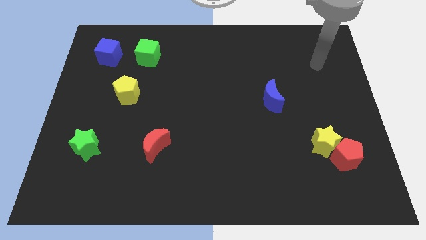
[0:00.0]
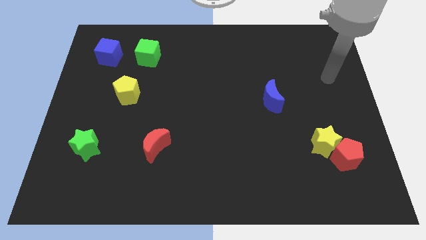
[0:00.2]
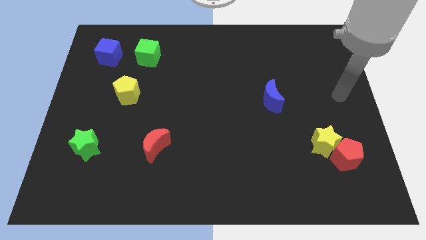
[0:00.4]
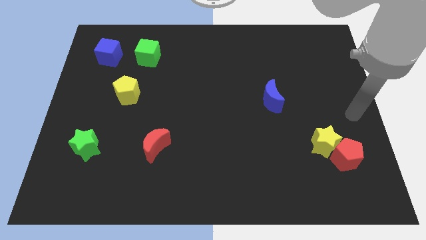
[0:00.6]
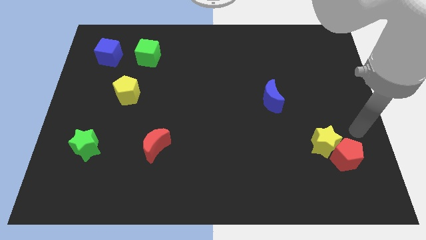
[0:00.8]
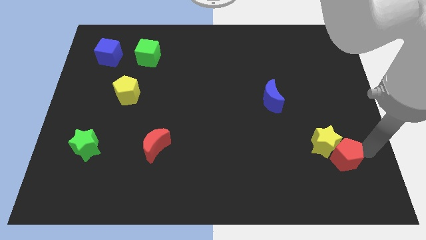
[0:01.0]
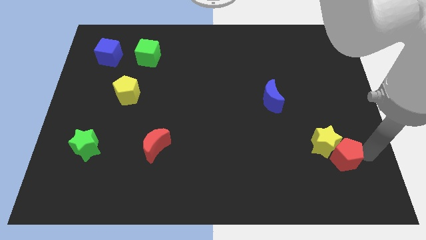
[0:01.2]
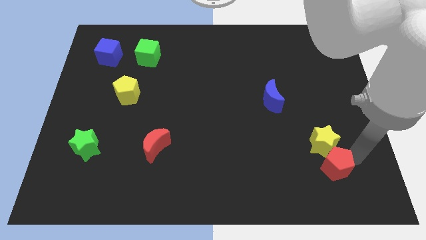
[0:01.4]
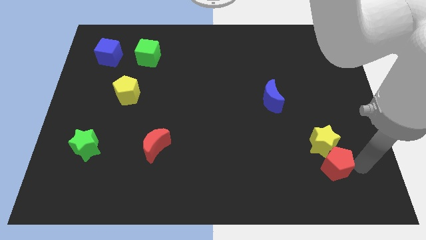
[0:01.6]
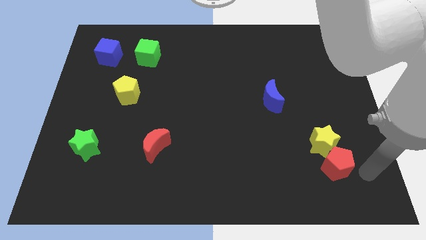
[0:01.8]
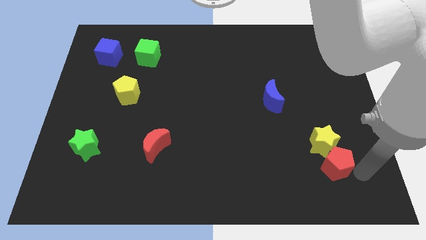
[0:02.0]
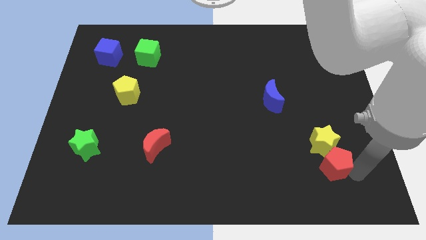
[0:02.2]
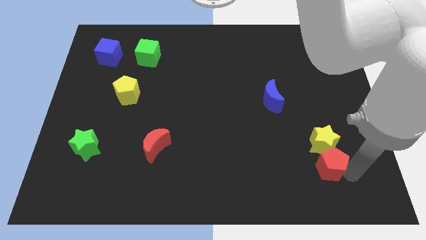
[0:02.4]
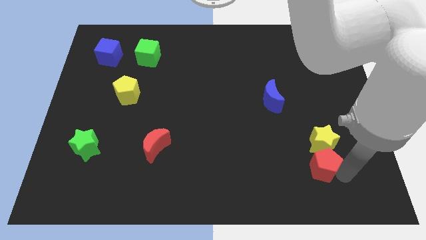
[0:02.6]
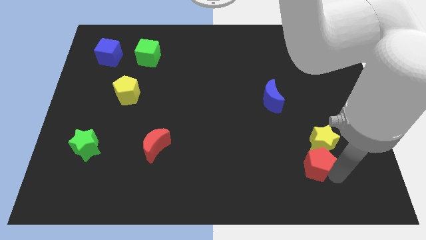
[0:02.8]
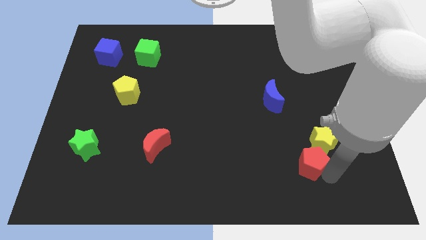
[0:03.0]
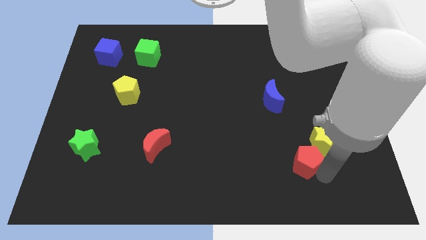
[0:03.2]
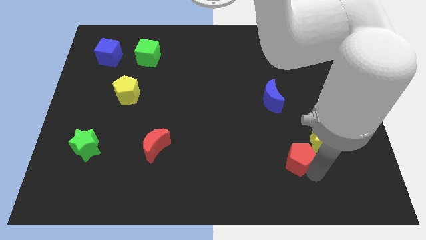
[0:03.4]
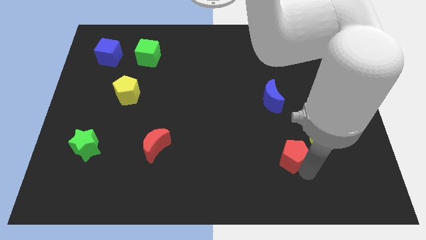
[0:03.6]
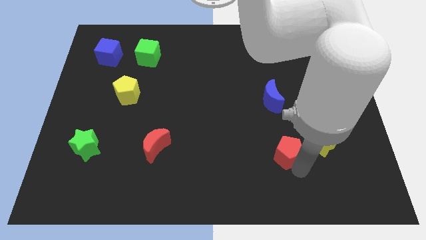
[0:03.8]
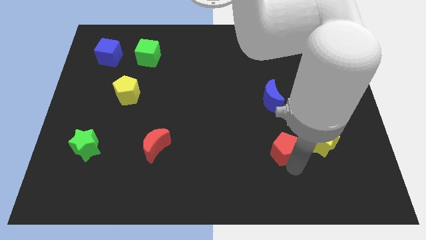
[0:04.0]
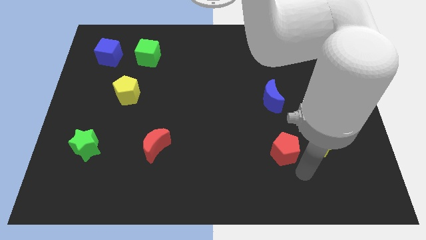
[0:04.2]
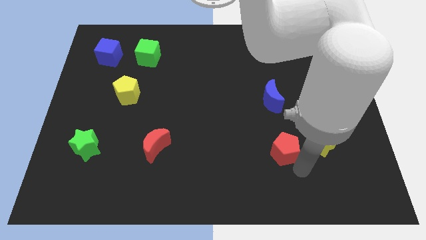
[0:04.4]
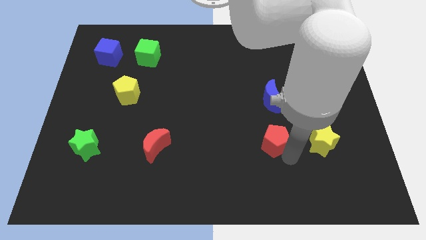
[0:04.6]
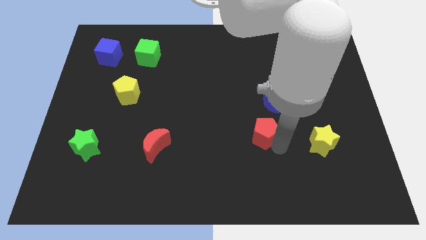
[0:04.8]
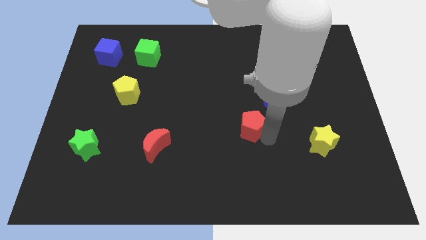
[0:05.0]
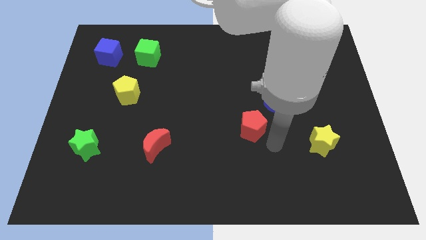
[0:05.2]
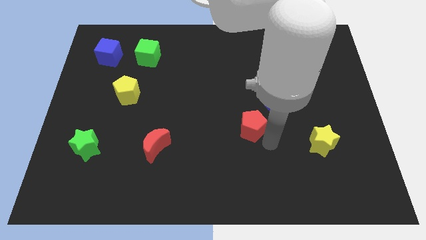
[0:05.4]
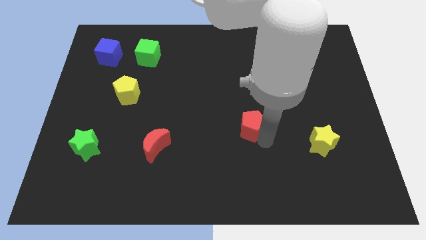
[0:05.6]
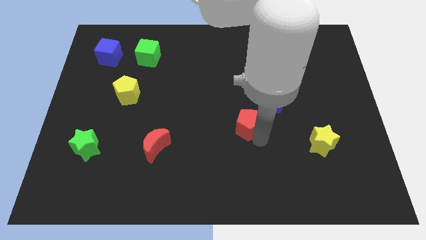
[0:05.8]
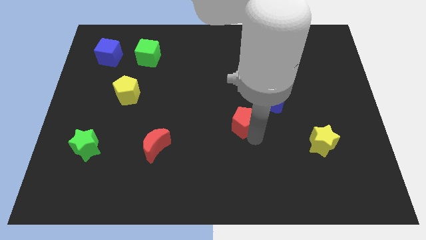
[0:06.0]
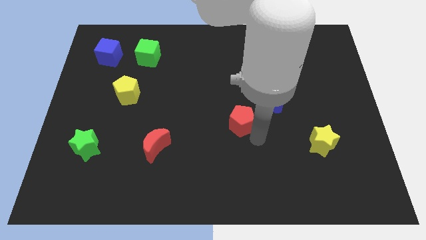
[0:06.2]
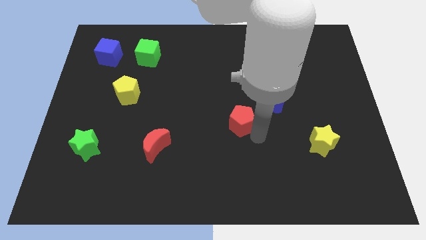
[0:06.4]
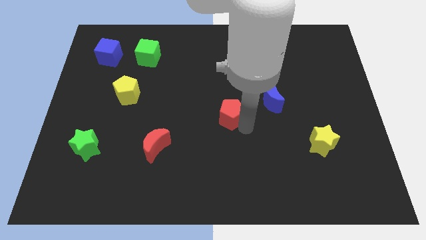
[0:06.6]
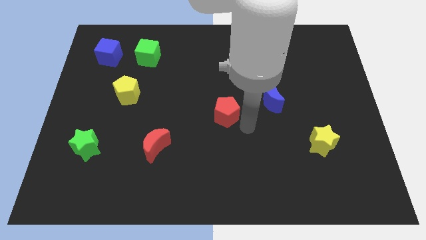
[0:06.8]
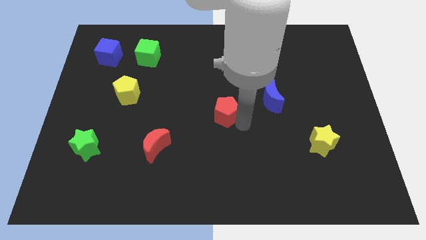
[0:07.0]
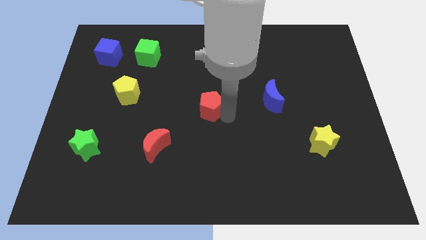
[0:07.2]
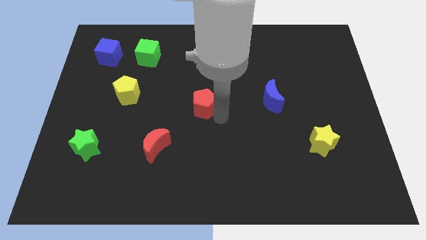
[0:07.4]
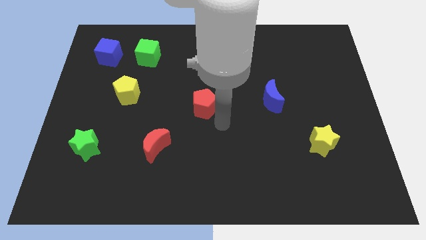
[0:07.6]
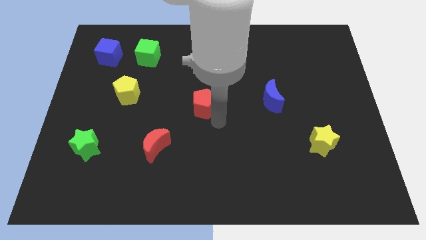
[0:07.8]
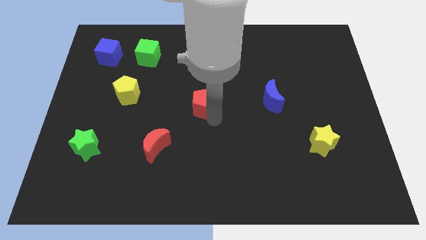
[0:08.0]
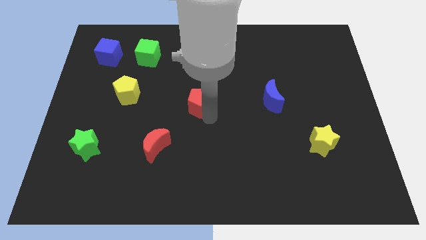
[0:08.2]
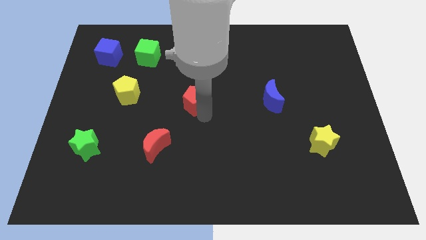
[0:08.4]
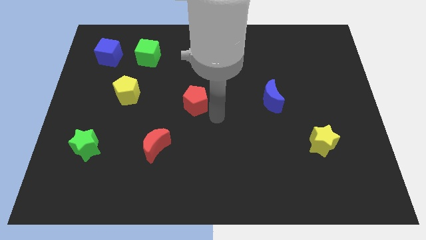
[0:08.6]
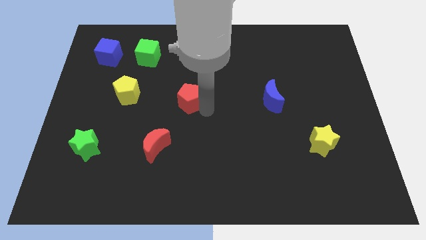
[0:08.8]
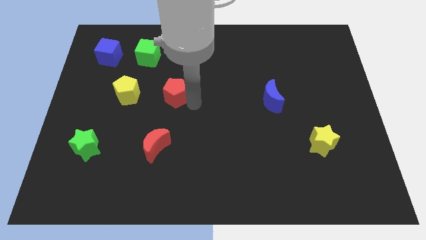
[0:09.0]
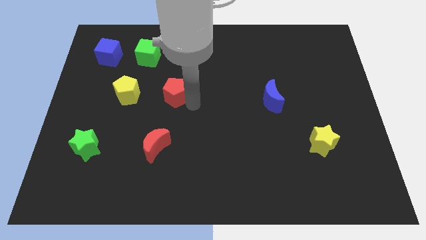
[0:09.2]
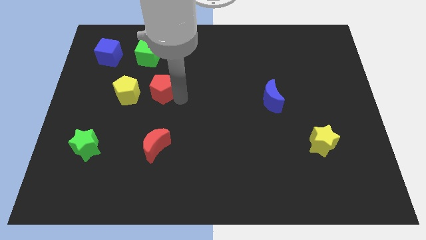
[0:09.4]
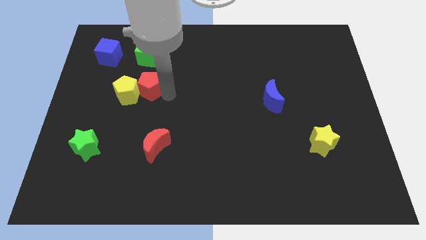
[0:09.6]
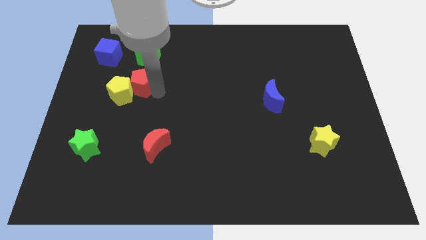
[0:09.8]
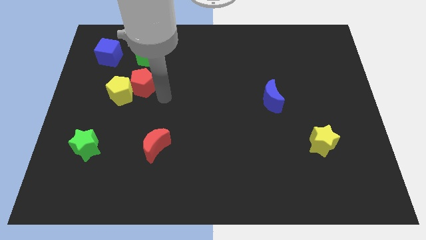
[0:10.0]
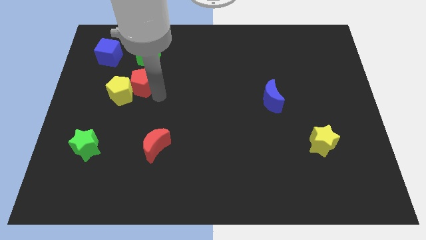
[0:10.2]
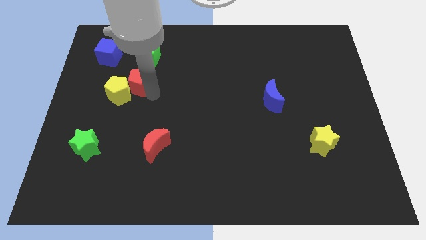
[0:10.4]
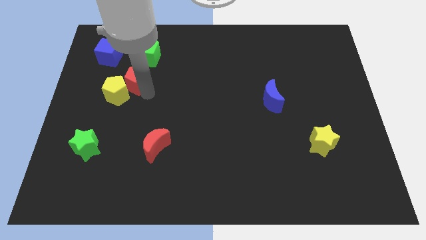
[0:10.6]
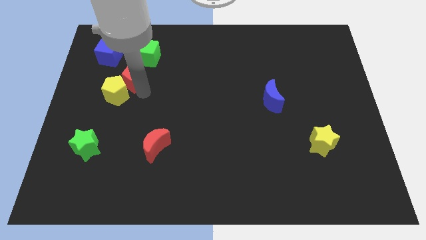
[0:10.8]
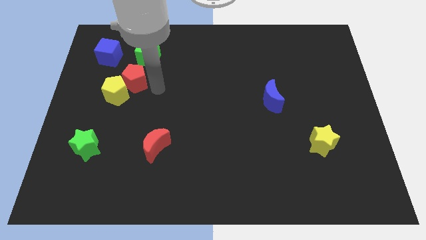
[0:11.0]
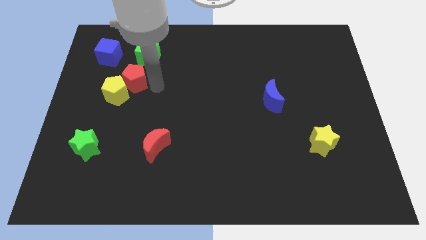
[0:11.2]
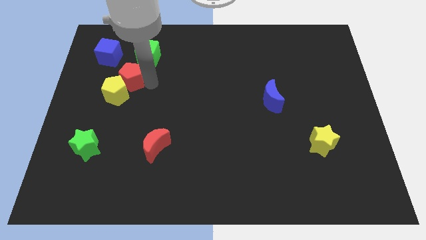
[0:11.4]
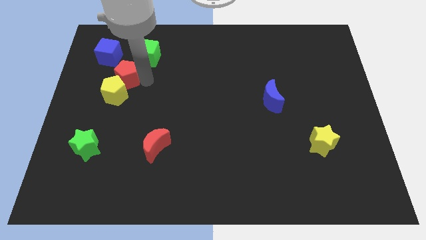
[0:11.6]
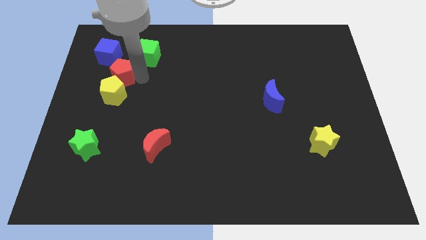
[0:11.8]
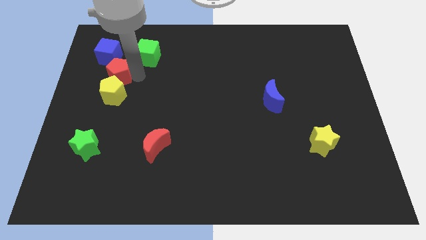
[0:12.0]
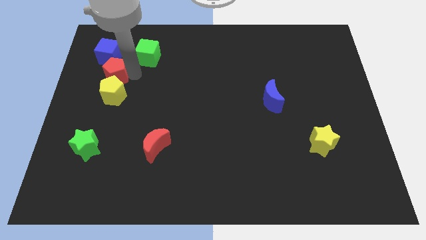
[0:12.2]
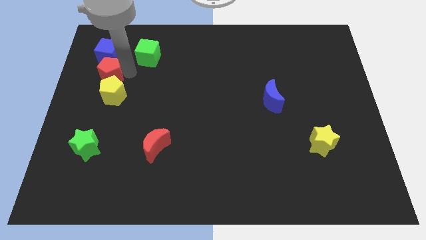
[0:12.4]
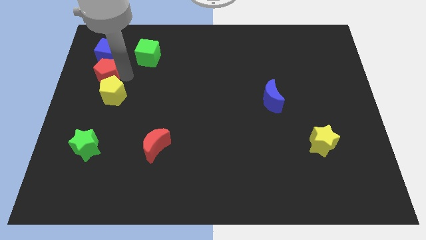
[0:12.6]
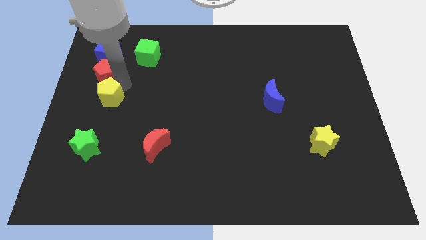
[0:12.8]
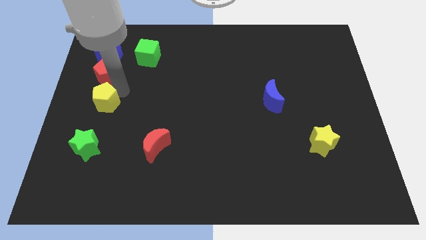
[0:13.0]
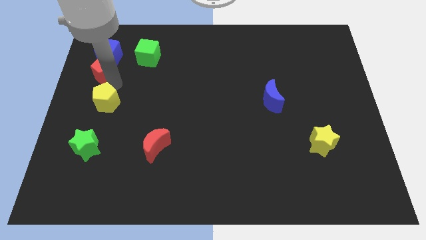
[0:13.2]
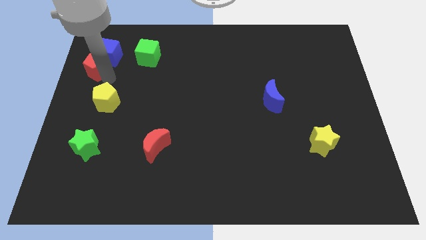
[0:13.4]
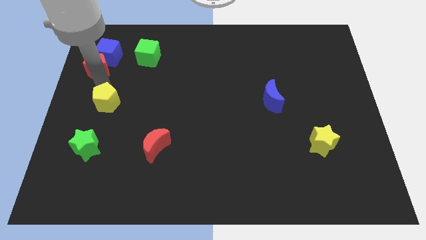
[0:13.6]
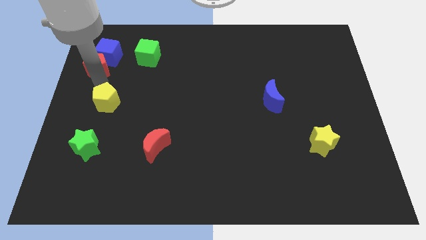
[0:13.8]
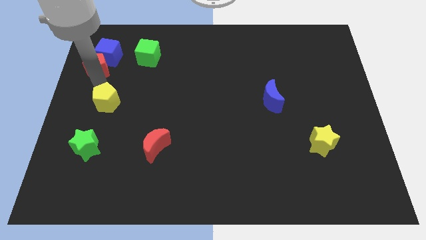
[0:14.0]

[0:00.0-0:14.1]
slide the red pentagon just left of the green cube
